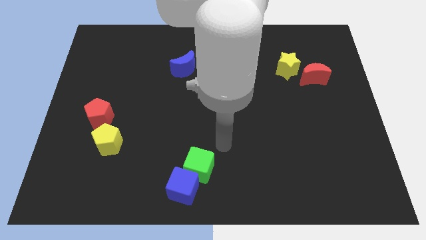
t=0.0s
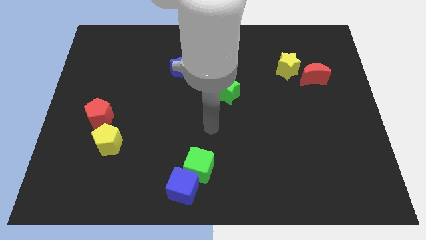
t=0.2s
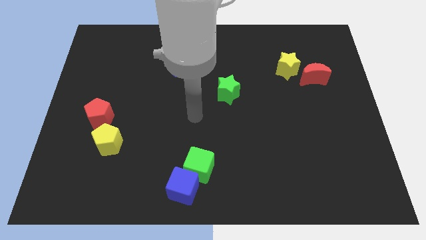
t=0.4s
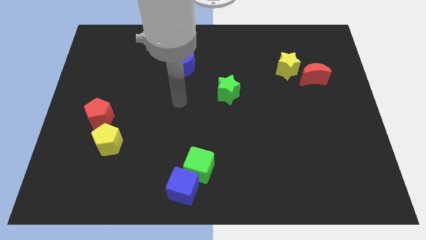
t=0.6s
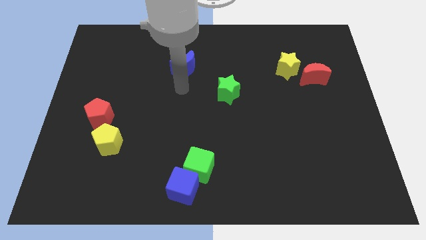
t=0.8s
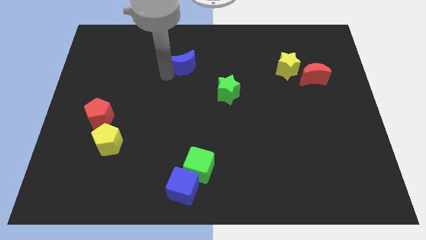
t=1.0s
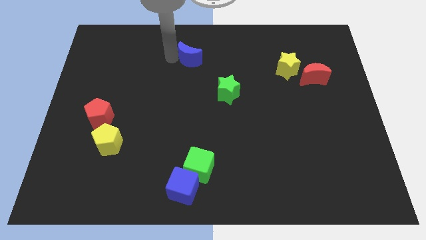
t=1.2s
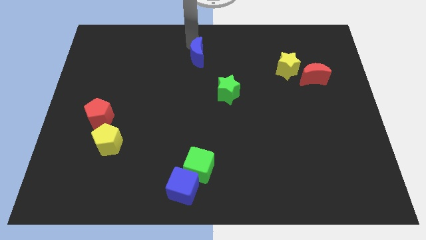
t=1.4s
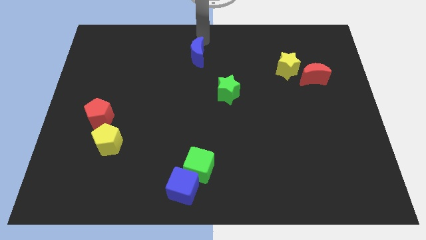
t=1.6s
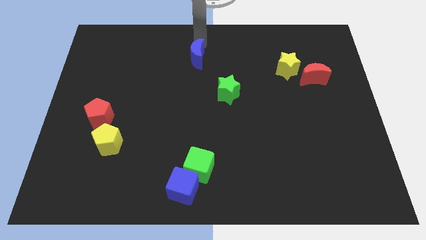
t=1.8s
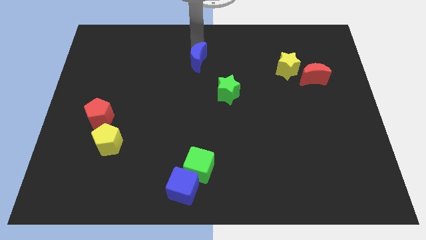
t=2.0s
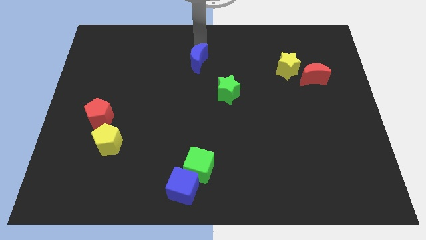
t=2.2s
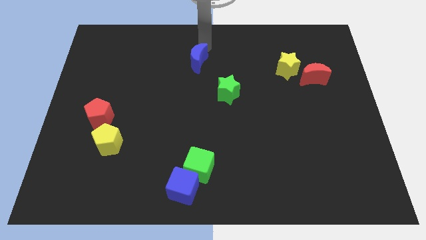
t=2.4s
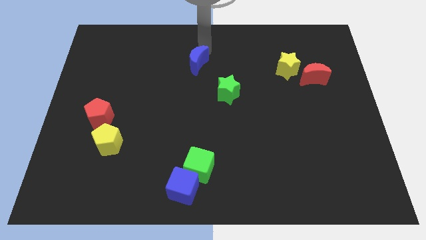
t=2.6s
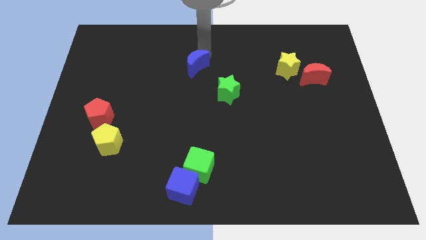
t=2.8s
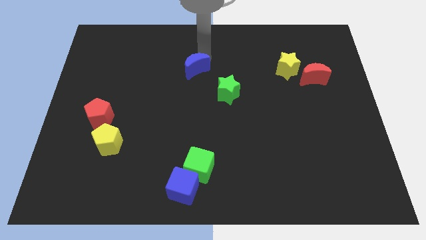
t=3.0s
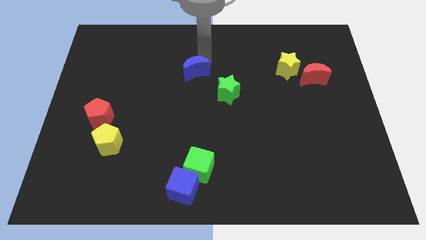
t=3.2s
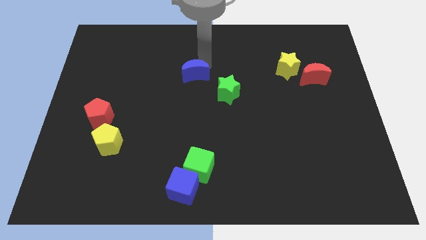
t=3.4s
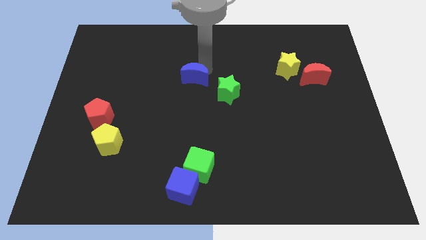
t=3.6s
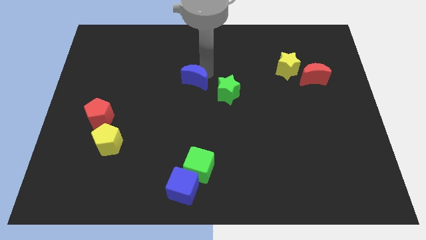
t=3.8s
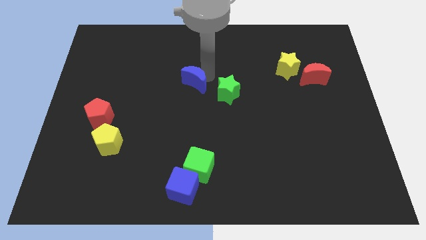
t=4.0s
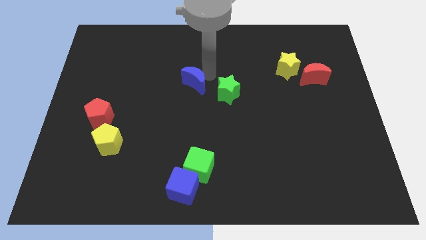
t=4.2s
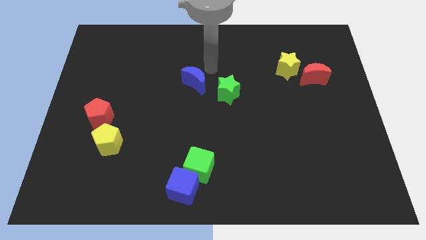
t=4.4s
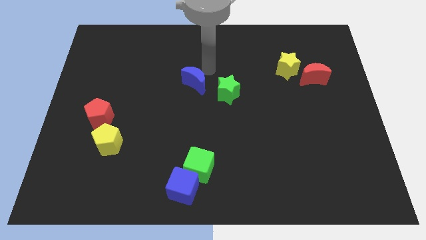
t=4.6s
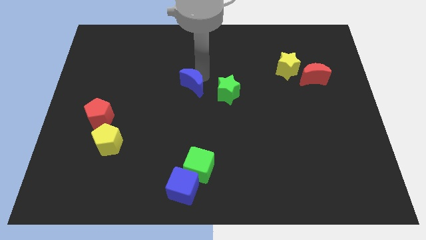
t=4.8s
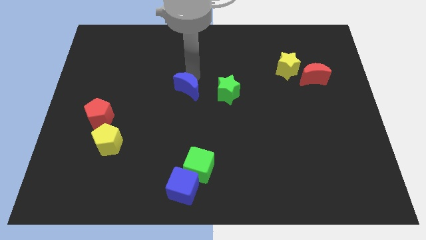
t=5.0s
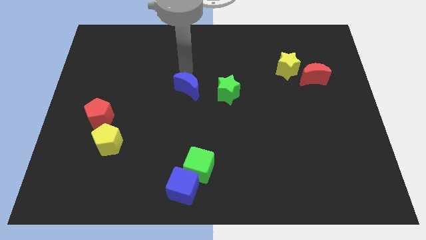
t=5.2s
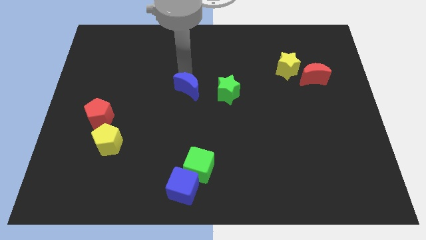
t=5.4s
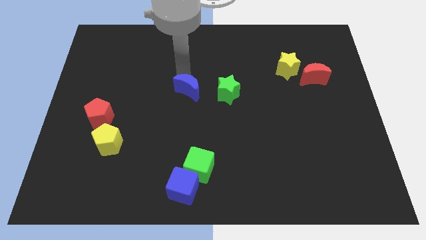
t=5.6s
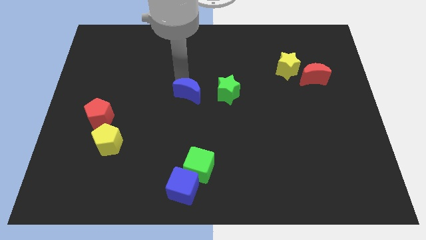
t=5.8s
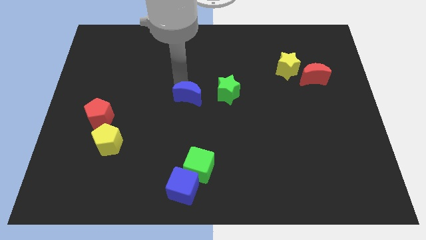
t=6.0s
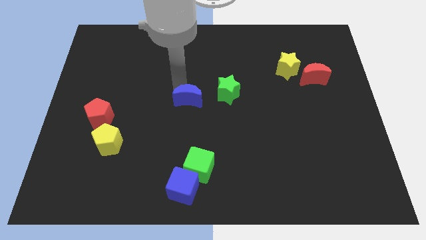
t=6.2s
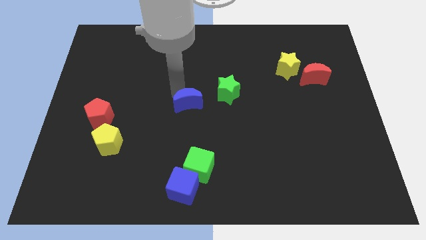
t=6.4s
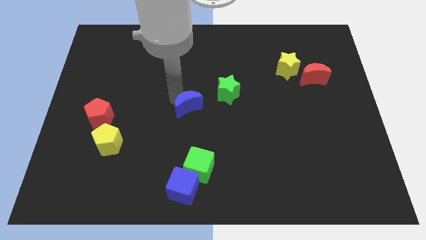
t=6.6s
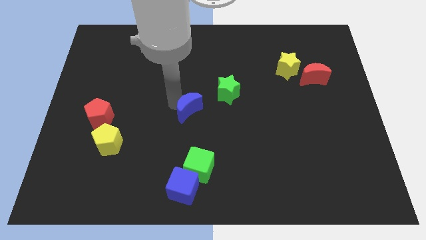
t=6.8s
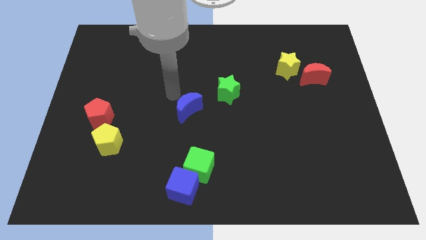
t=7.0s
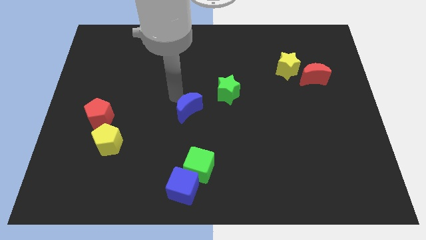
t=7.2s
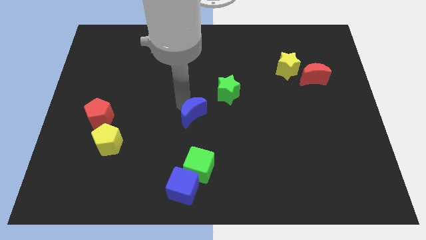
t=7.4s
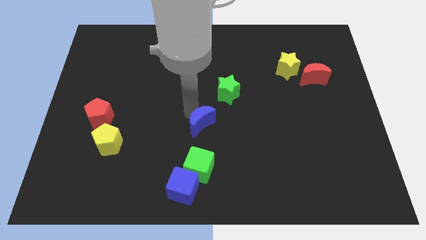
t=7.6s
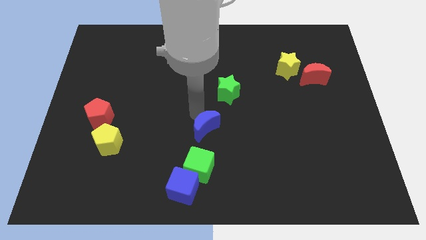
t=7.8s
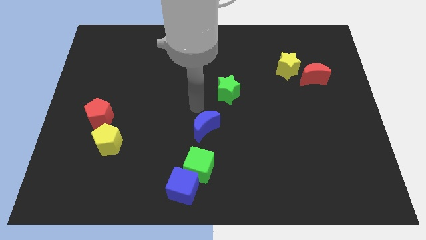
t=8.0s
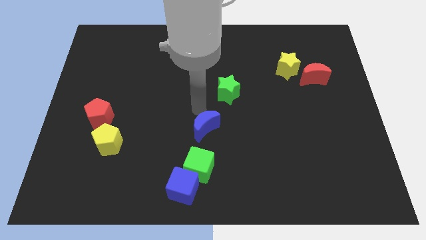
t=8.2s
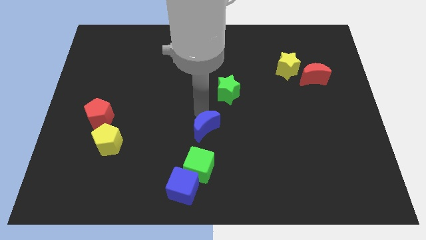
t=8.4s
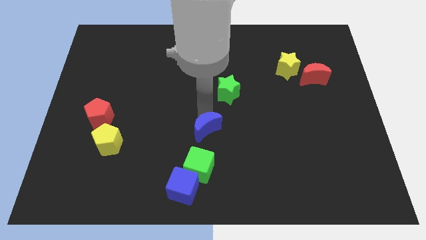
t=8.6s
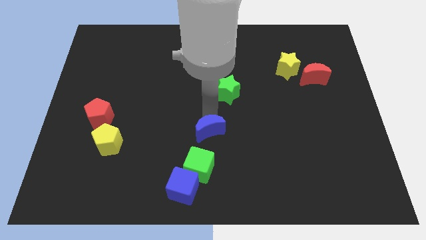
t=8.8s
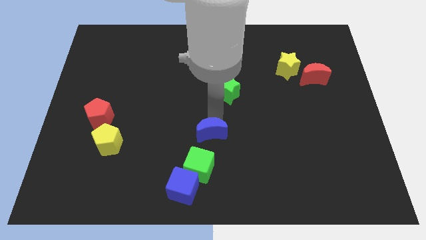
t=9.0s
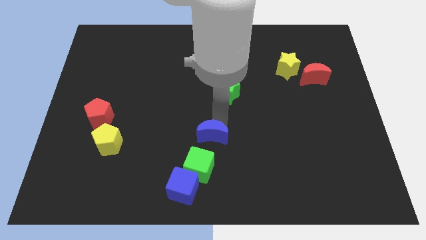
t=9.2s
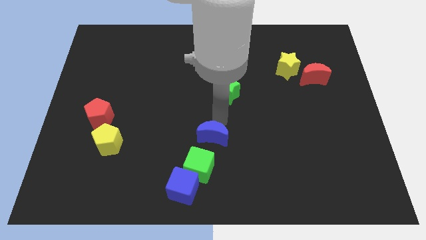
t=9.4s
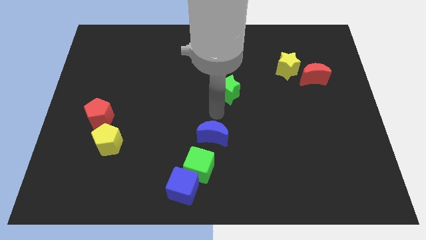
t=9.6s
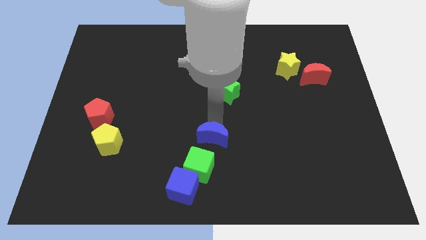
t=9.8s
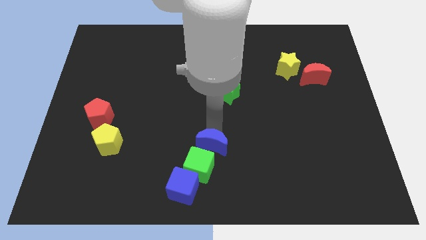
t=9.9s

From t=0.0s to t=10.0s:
put the blue moon diagonally up and to the right of the blue cube

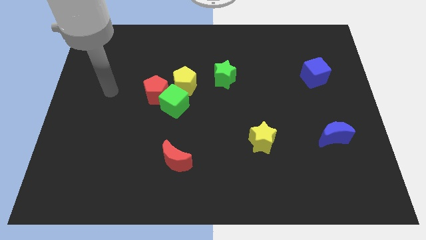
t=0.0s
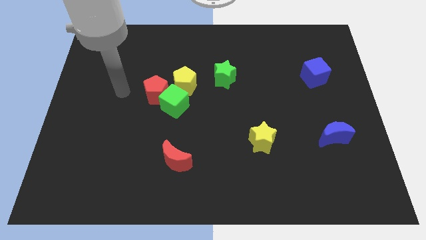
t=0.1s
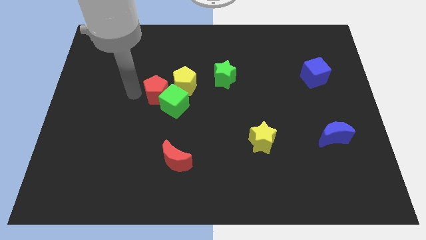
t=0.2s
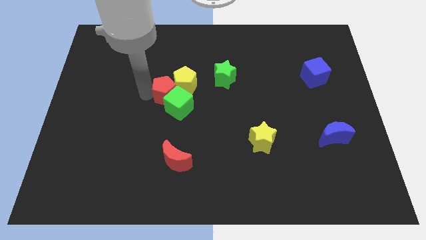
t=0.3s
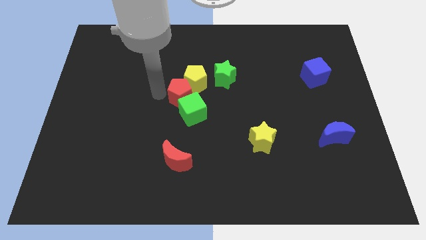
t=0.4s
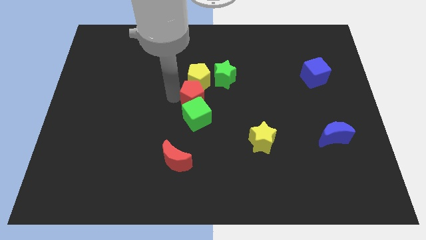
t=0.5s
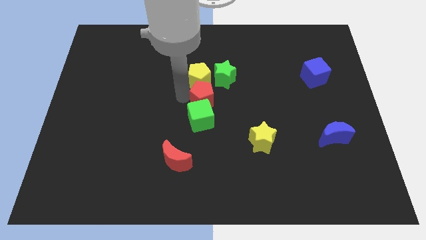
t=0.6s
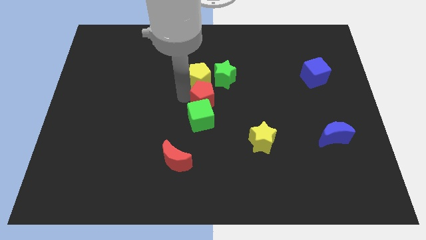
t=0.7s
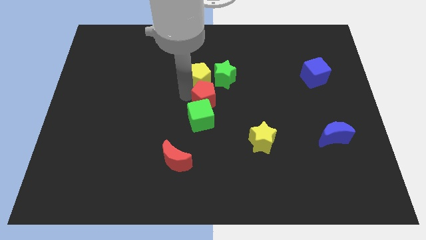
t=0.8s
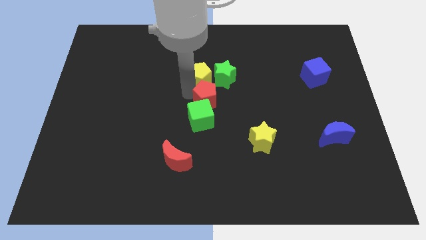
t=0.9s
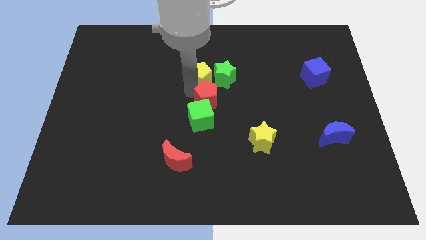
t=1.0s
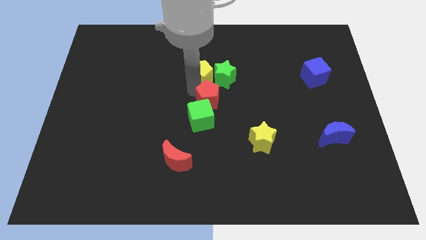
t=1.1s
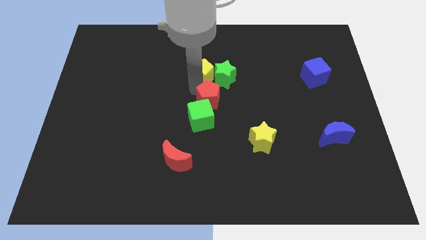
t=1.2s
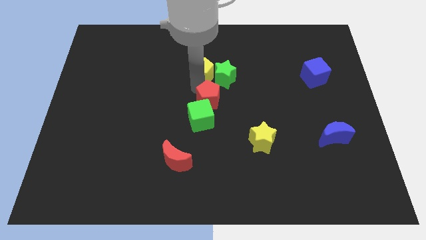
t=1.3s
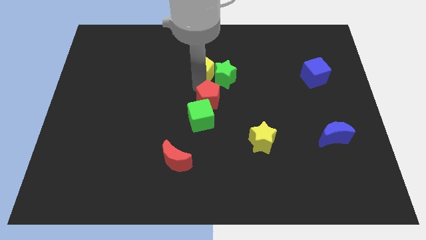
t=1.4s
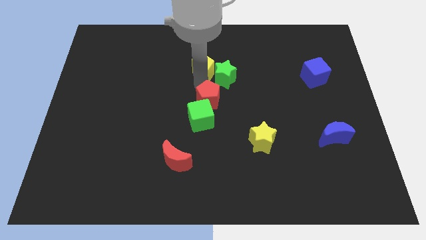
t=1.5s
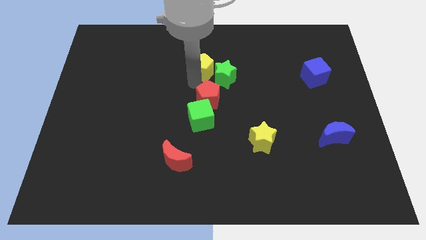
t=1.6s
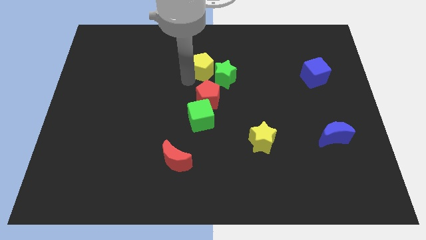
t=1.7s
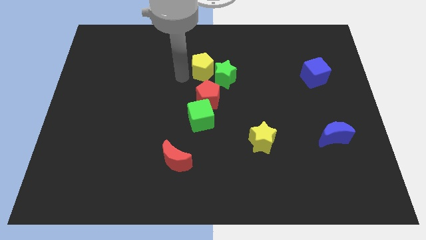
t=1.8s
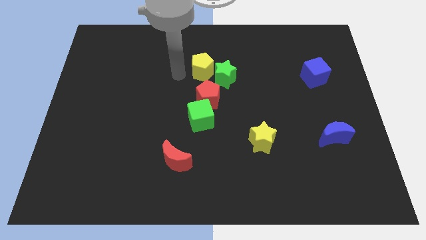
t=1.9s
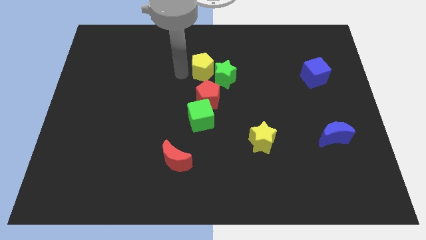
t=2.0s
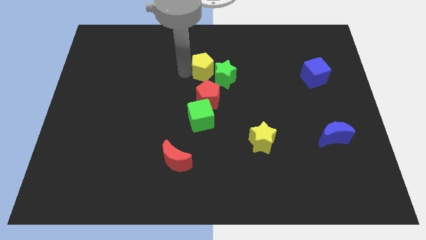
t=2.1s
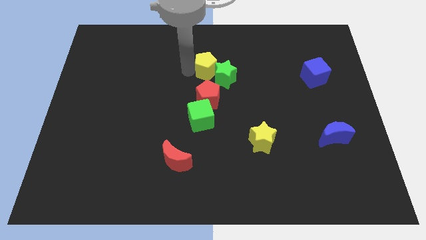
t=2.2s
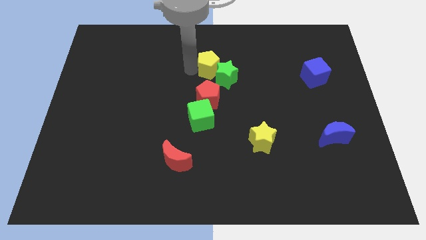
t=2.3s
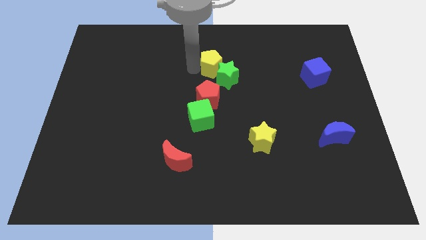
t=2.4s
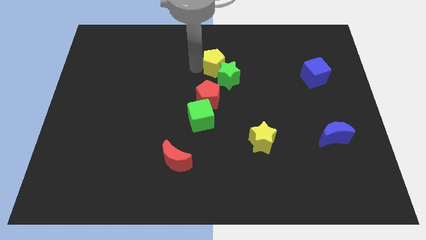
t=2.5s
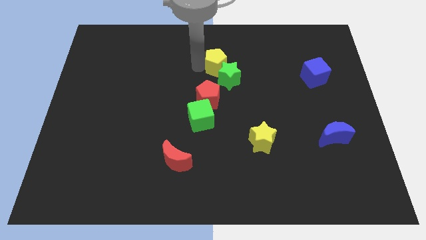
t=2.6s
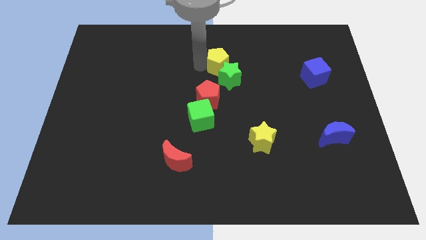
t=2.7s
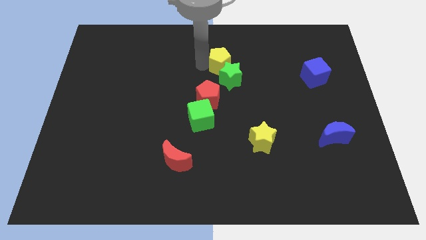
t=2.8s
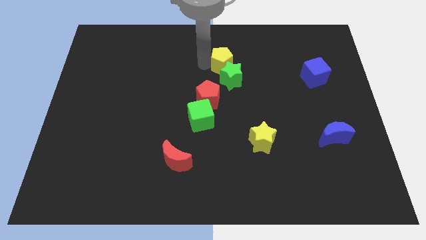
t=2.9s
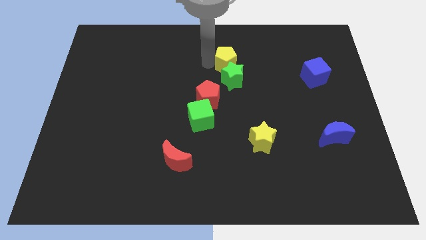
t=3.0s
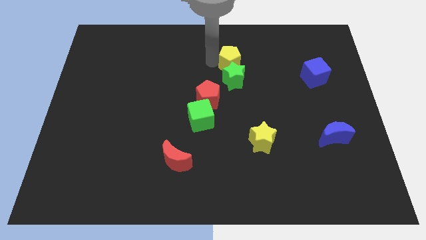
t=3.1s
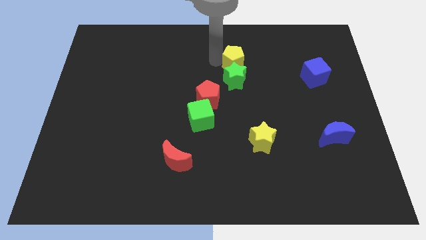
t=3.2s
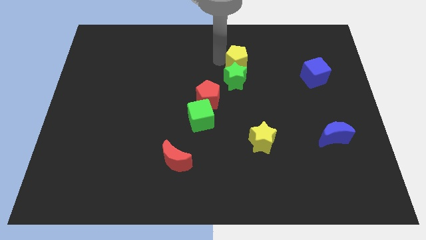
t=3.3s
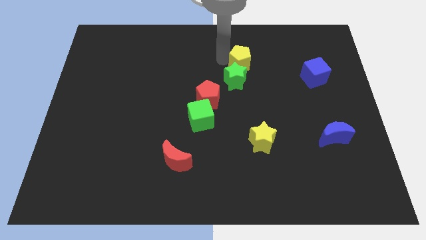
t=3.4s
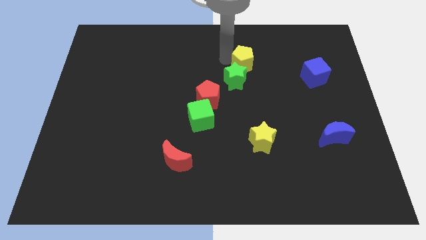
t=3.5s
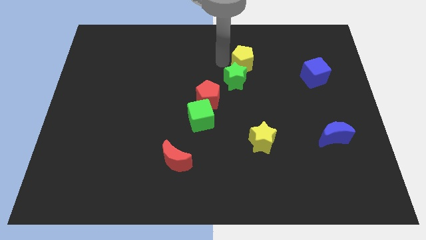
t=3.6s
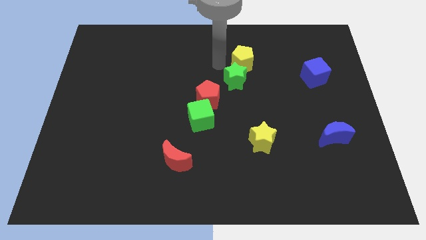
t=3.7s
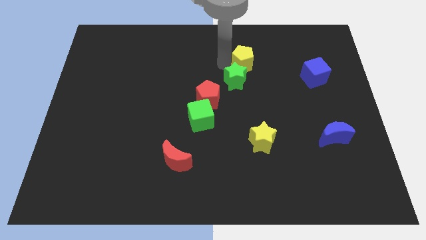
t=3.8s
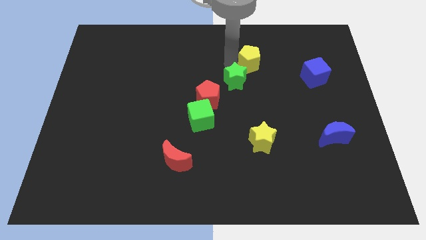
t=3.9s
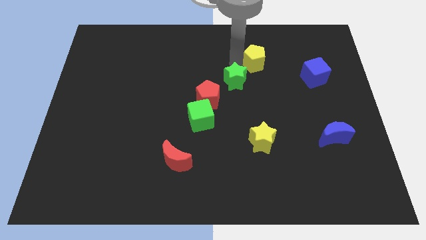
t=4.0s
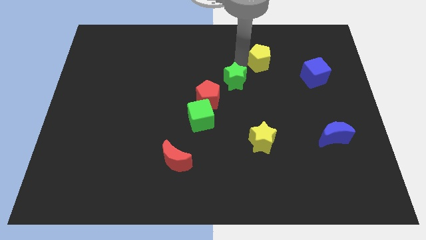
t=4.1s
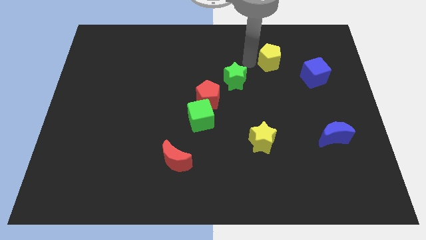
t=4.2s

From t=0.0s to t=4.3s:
move the yellow pentagon to the top left of the blue cube
